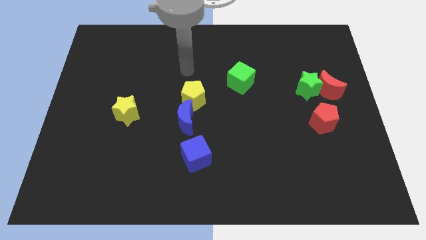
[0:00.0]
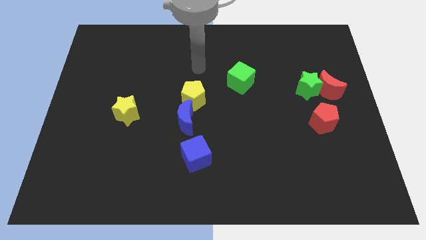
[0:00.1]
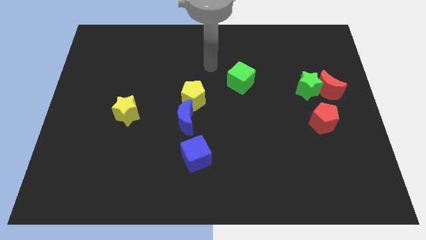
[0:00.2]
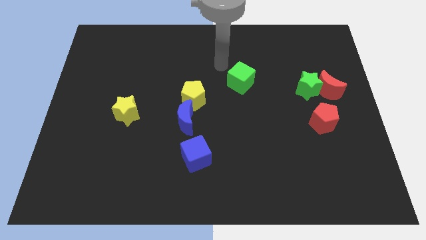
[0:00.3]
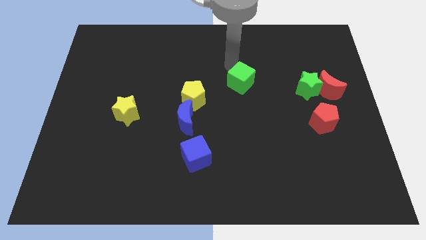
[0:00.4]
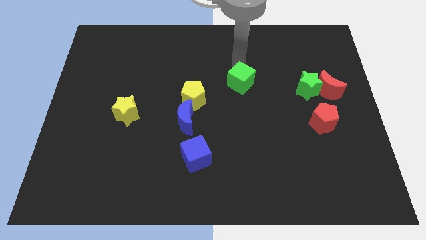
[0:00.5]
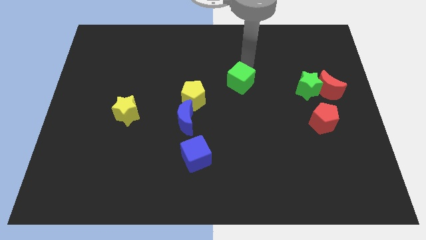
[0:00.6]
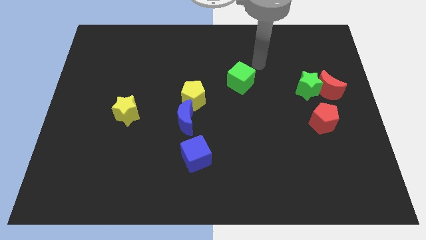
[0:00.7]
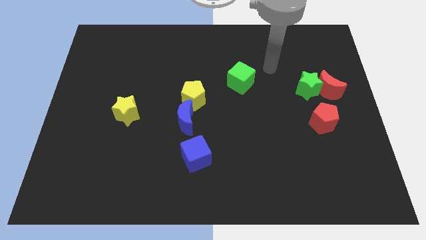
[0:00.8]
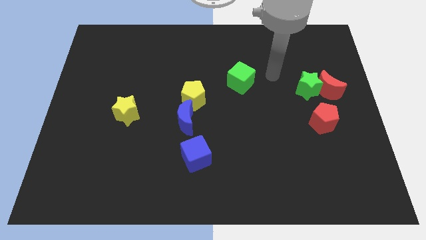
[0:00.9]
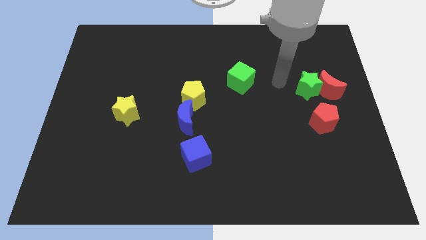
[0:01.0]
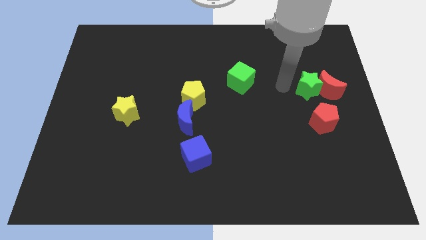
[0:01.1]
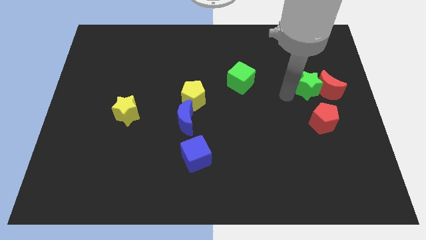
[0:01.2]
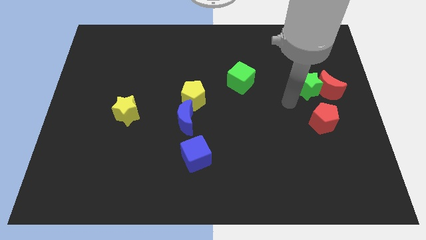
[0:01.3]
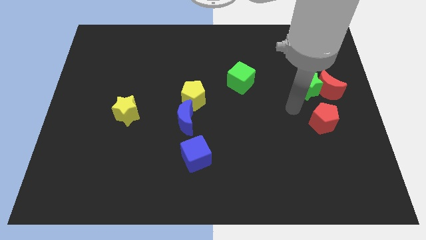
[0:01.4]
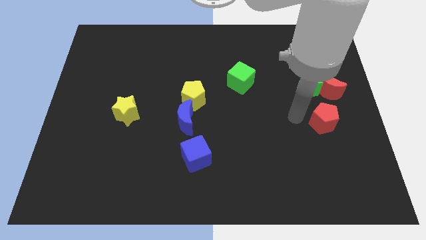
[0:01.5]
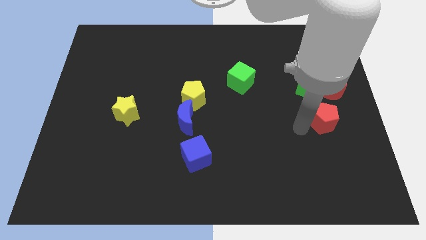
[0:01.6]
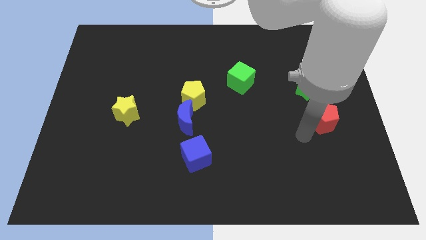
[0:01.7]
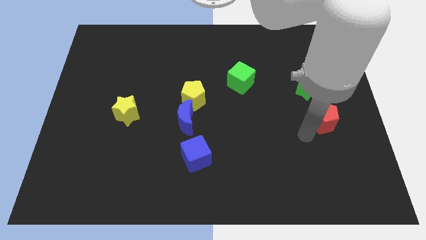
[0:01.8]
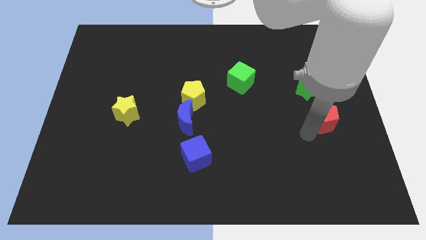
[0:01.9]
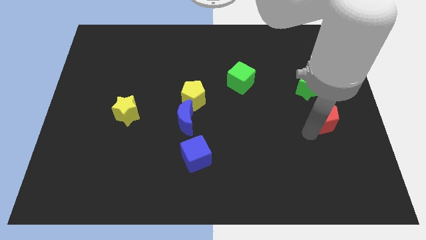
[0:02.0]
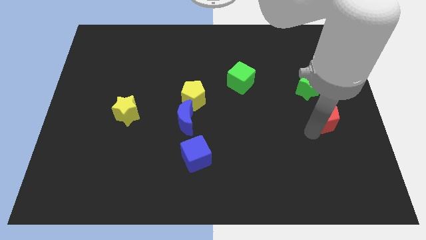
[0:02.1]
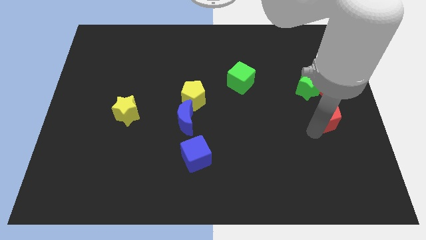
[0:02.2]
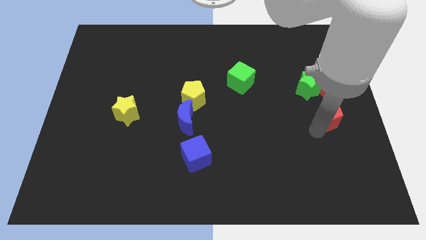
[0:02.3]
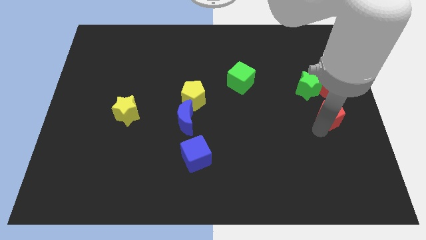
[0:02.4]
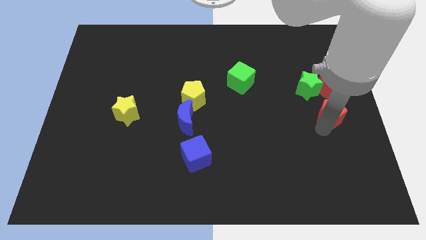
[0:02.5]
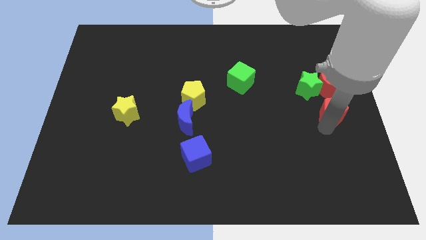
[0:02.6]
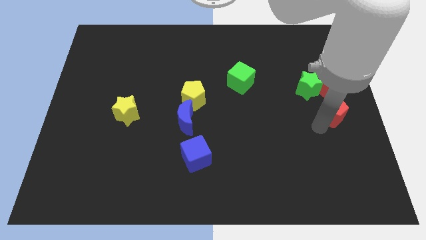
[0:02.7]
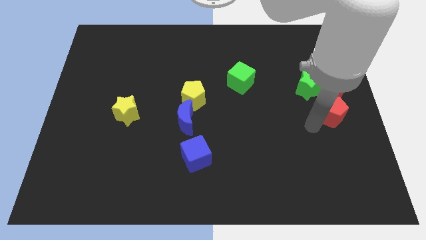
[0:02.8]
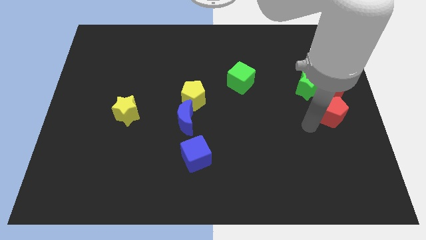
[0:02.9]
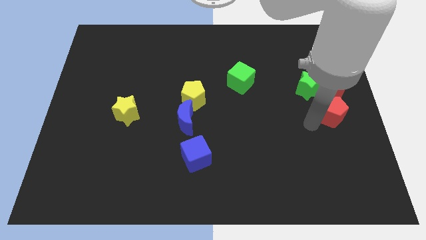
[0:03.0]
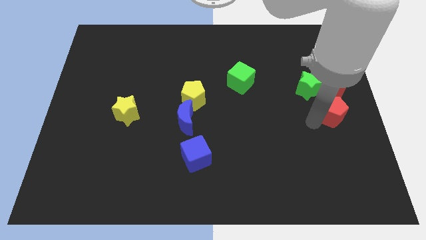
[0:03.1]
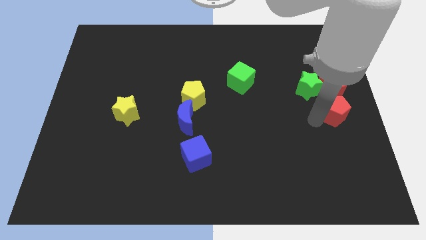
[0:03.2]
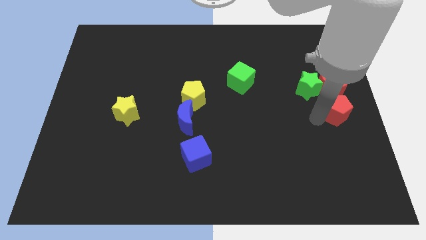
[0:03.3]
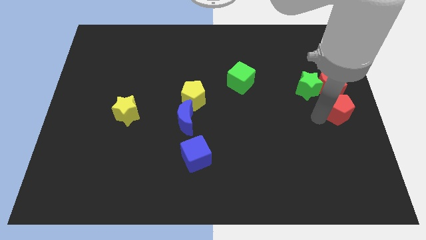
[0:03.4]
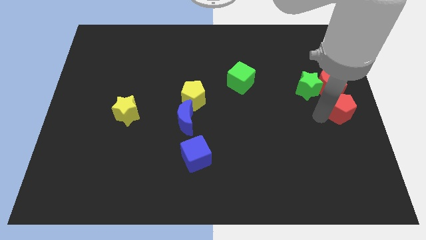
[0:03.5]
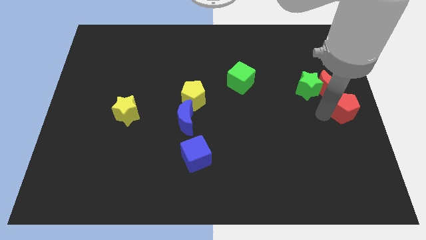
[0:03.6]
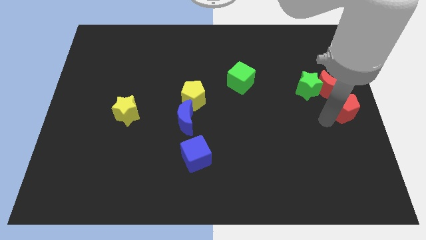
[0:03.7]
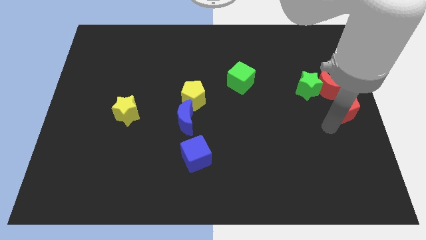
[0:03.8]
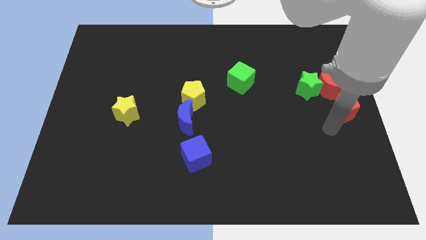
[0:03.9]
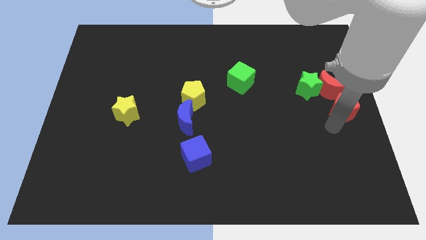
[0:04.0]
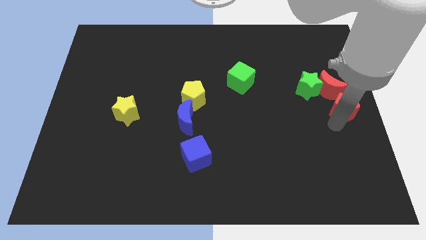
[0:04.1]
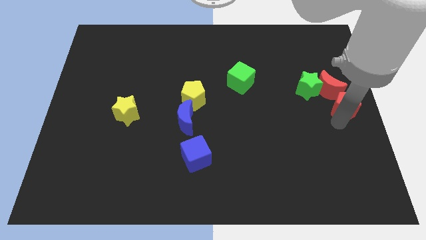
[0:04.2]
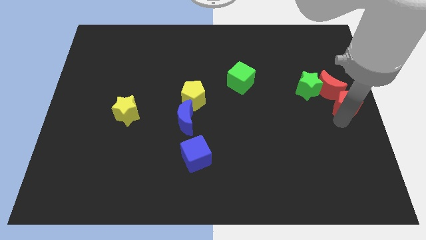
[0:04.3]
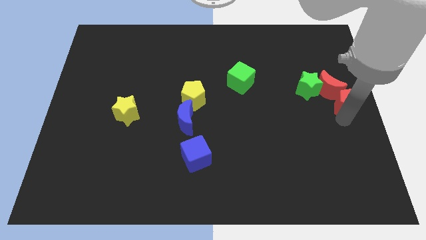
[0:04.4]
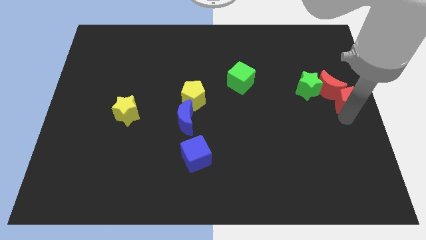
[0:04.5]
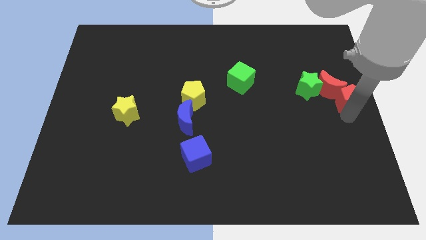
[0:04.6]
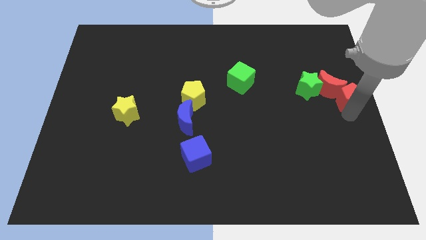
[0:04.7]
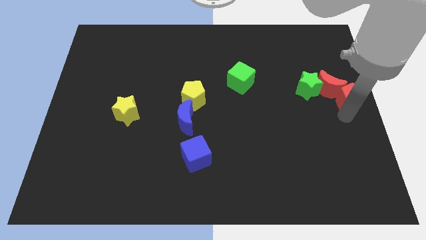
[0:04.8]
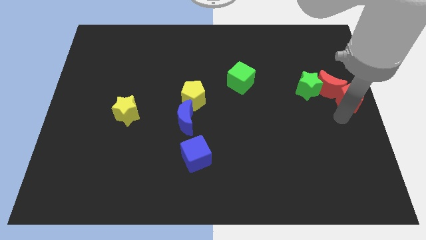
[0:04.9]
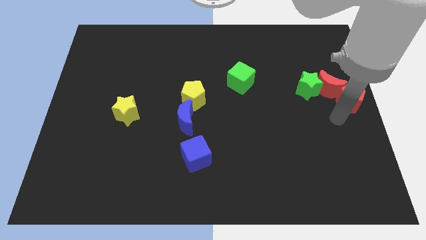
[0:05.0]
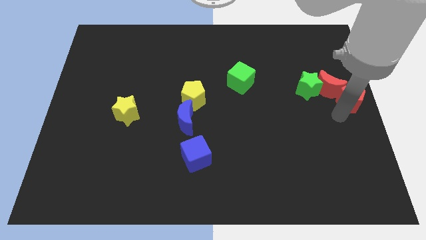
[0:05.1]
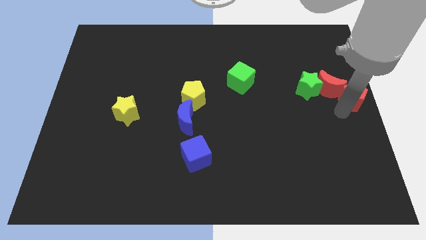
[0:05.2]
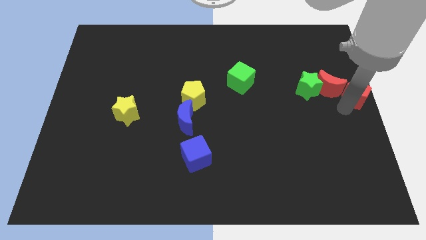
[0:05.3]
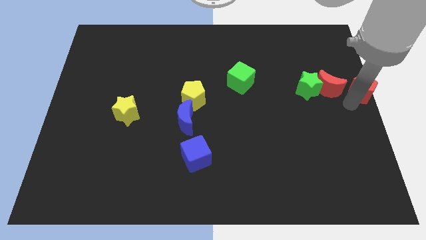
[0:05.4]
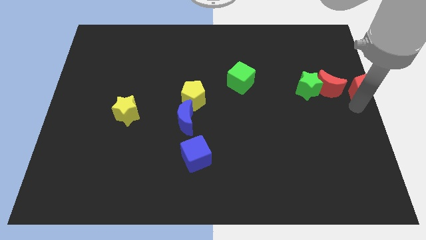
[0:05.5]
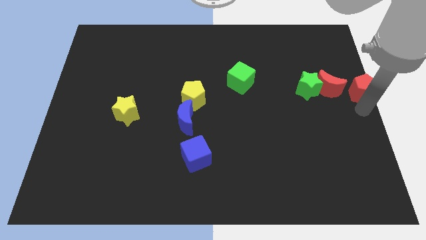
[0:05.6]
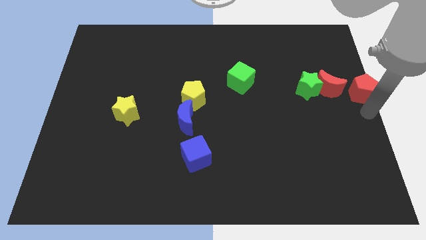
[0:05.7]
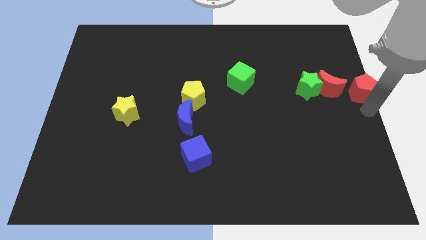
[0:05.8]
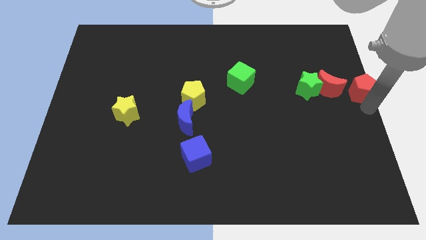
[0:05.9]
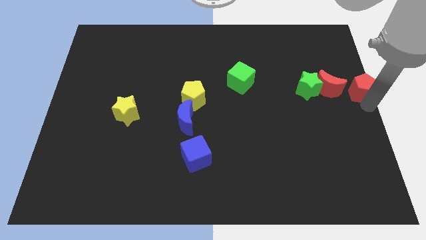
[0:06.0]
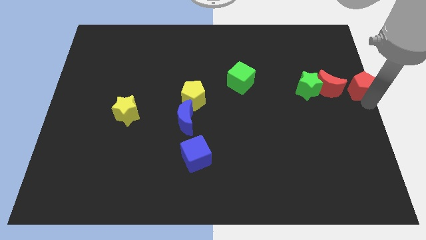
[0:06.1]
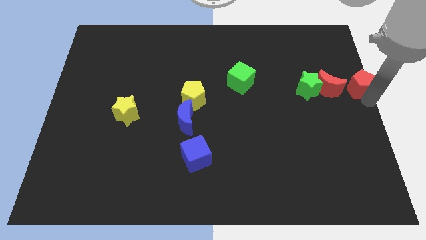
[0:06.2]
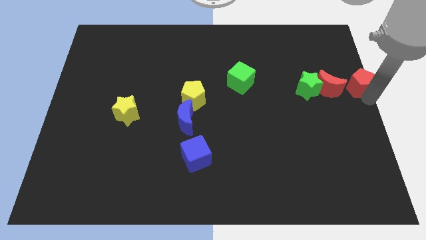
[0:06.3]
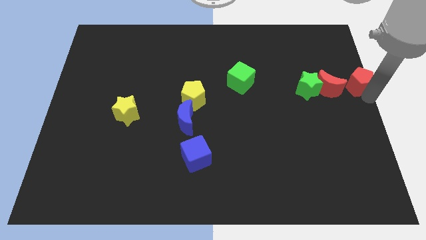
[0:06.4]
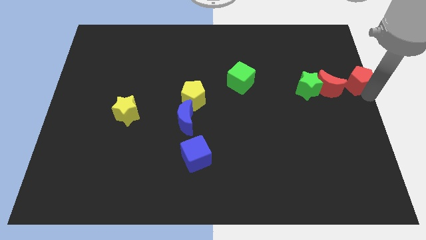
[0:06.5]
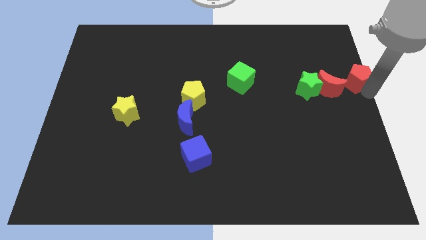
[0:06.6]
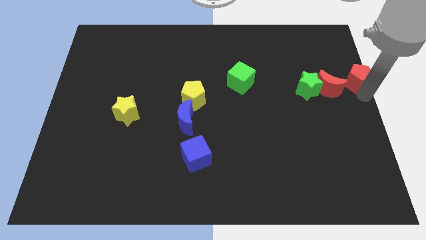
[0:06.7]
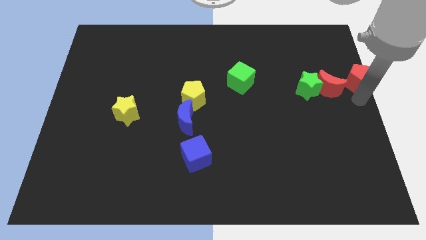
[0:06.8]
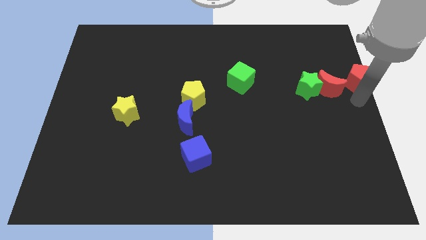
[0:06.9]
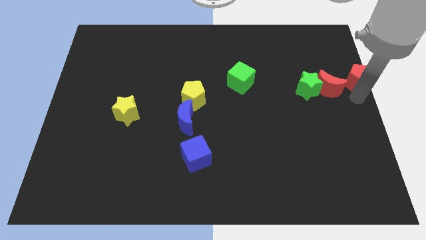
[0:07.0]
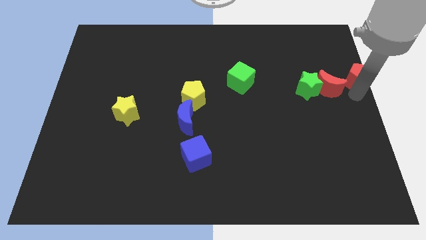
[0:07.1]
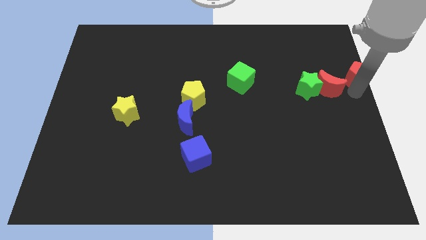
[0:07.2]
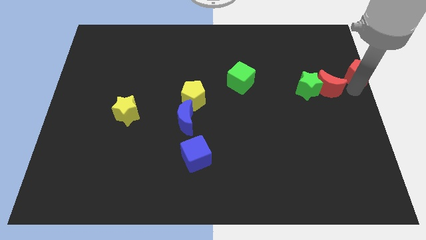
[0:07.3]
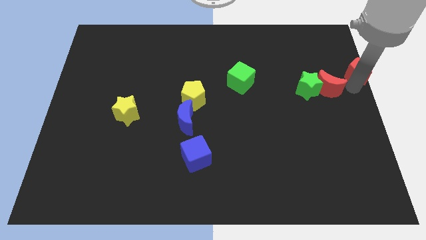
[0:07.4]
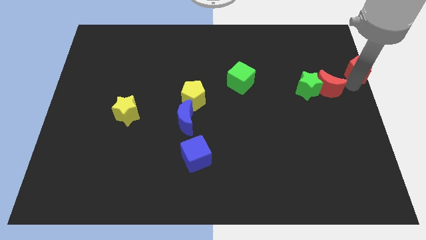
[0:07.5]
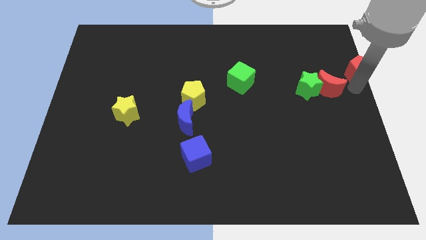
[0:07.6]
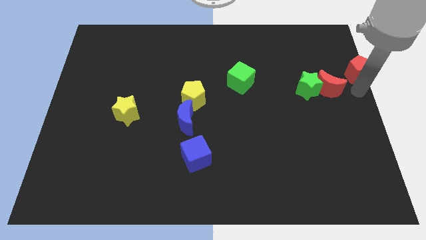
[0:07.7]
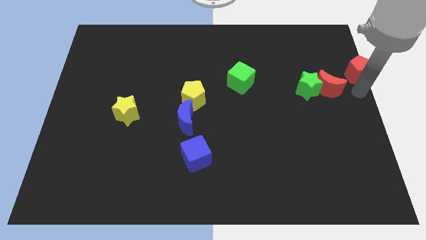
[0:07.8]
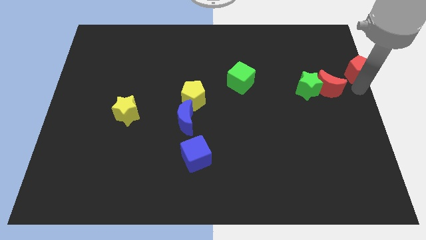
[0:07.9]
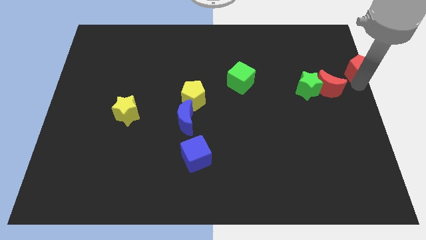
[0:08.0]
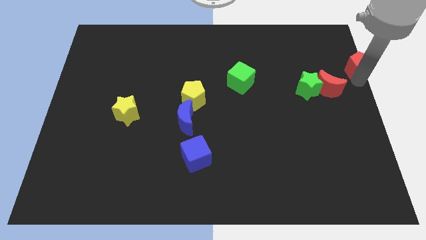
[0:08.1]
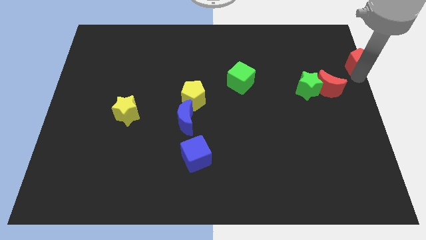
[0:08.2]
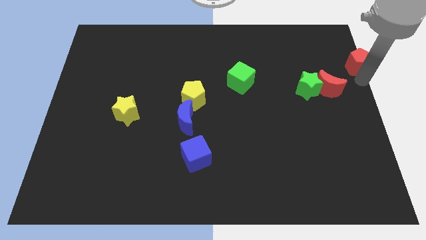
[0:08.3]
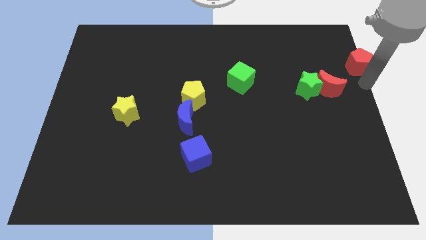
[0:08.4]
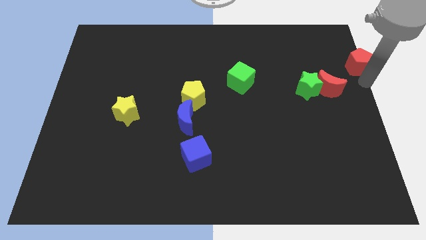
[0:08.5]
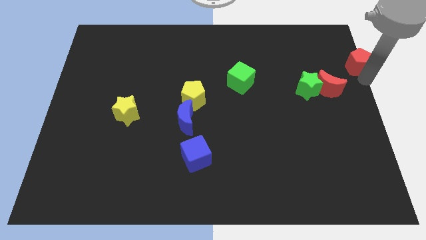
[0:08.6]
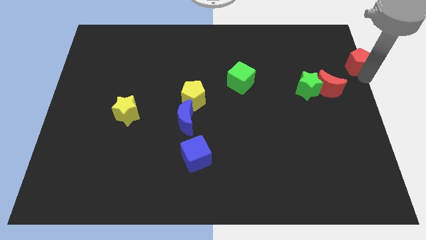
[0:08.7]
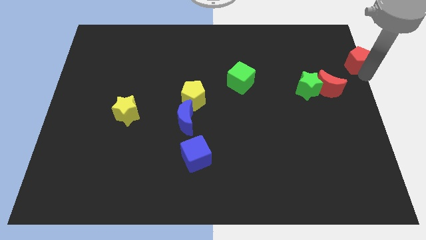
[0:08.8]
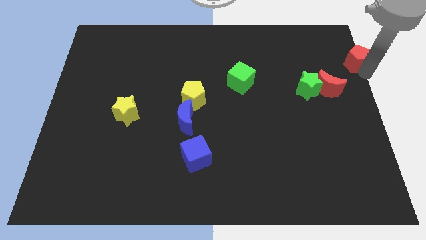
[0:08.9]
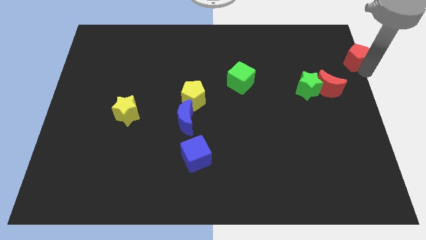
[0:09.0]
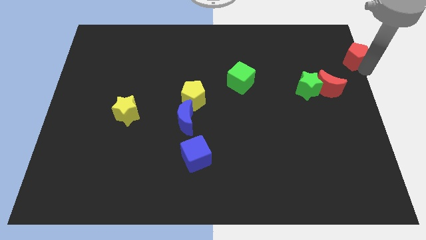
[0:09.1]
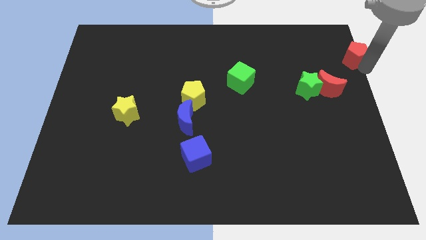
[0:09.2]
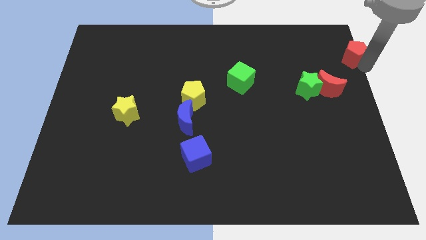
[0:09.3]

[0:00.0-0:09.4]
push the red pentagon to the top right corner
